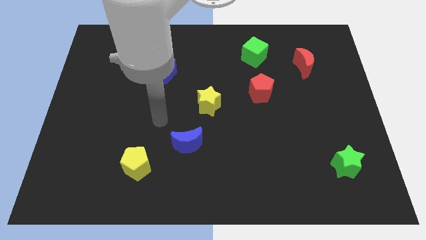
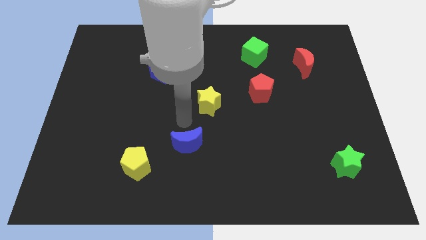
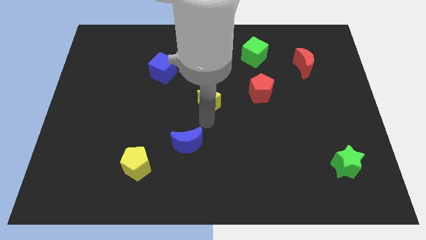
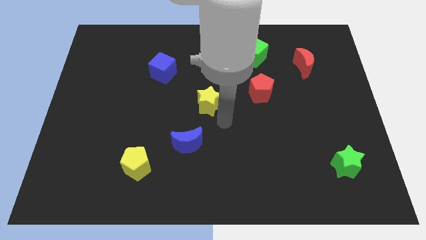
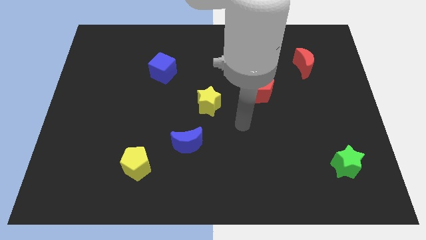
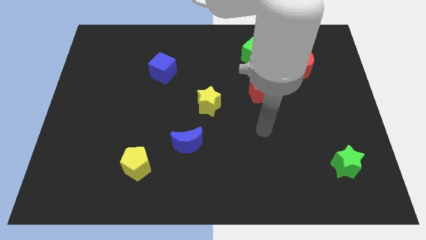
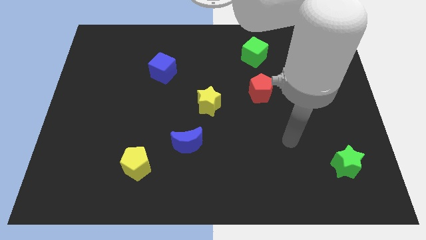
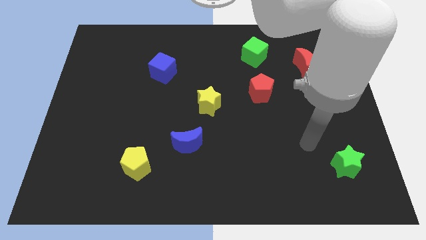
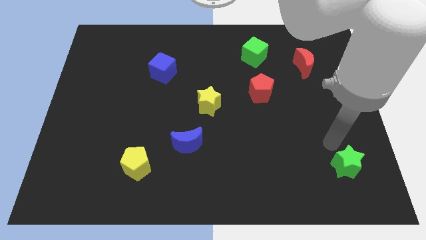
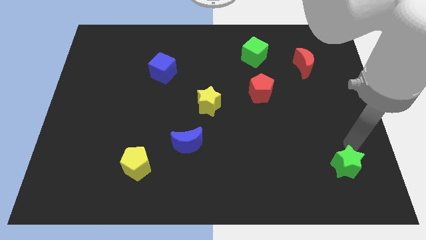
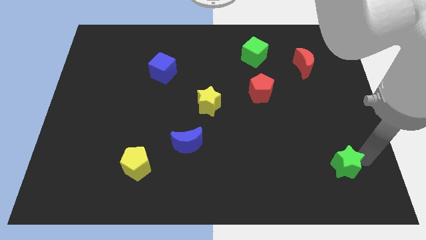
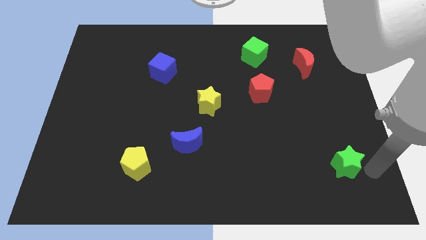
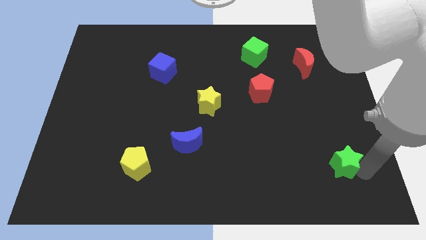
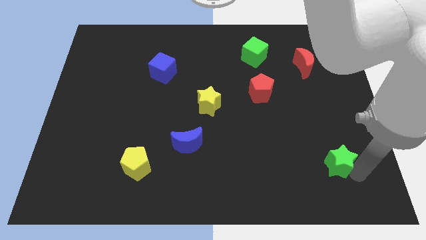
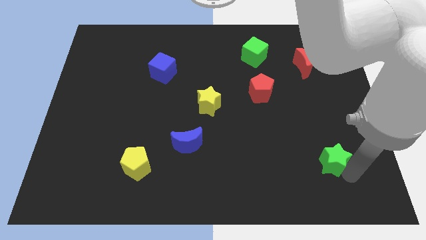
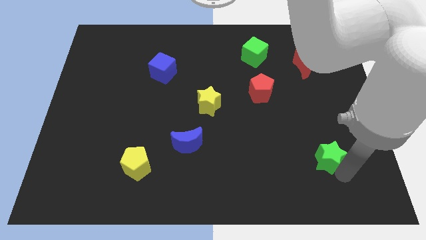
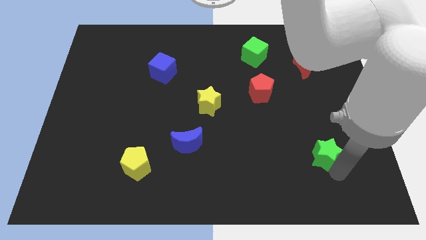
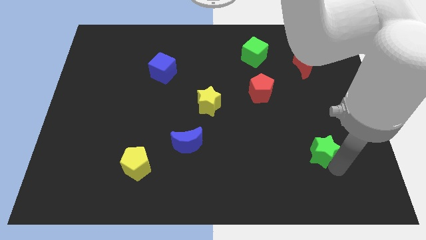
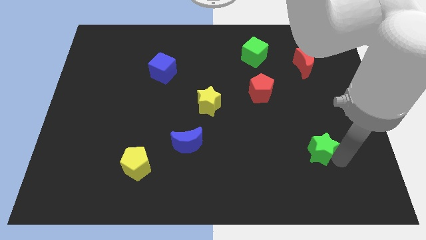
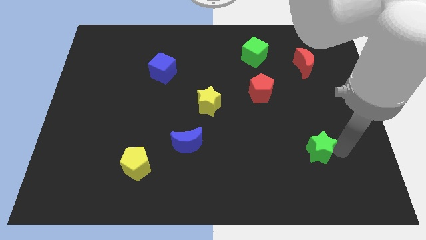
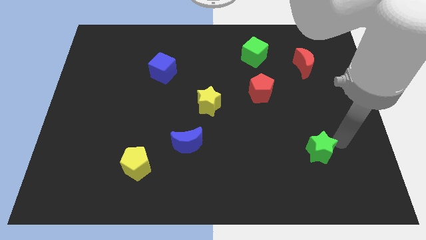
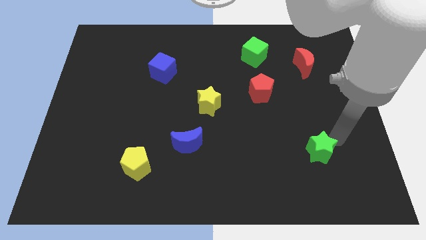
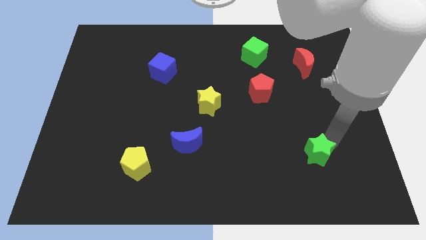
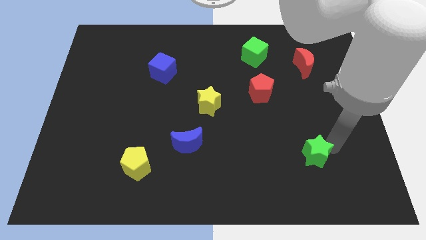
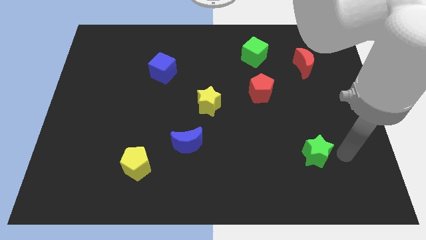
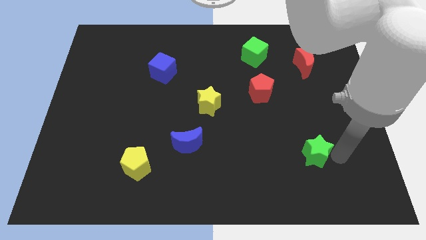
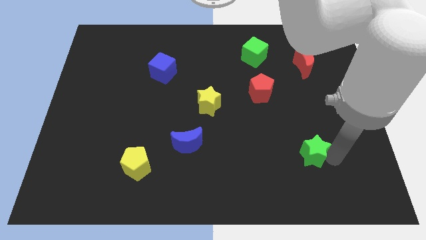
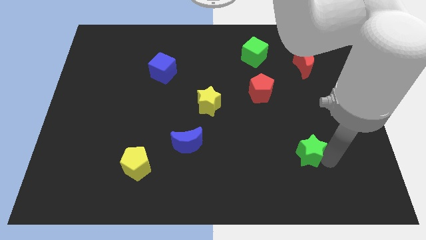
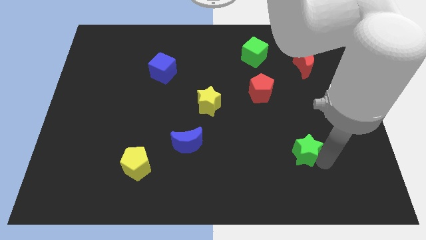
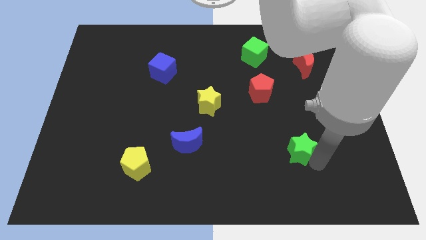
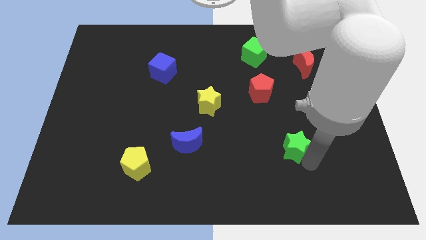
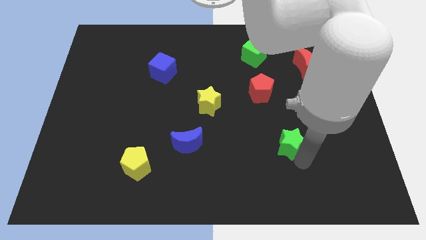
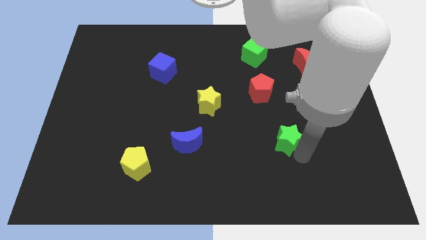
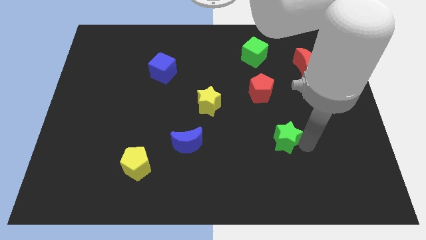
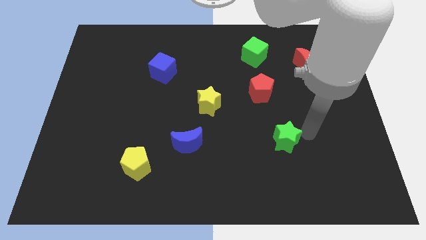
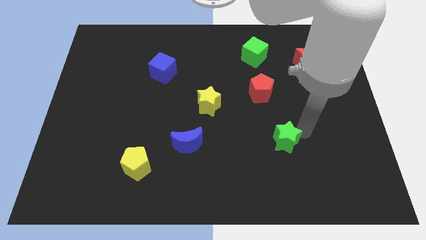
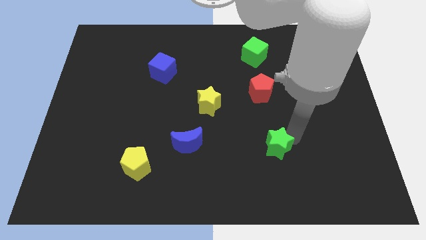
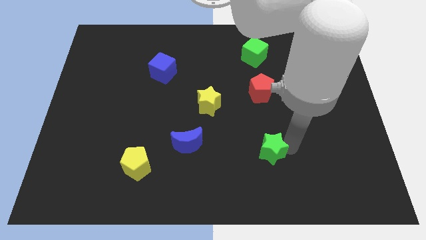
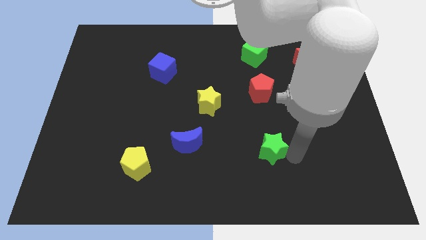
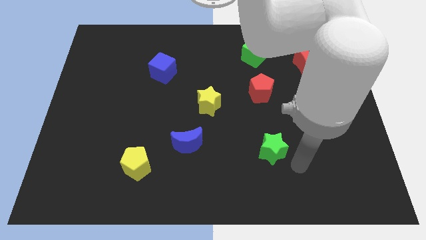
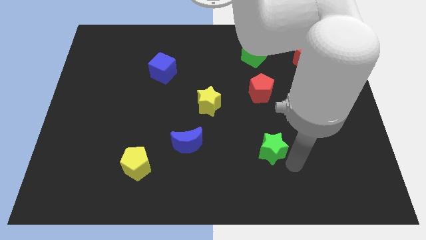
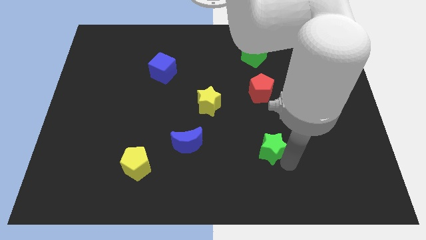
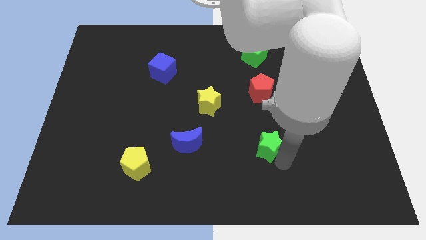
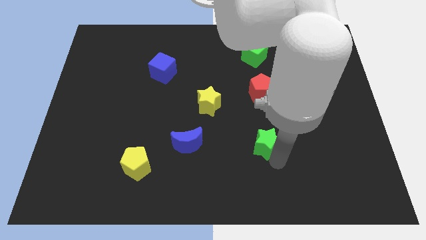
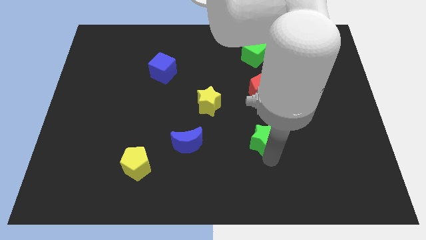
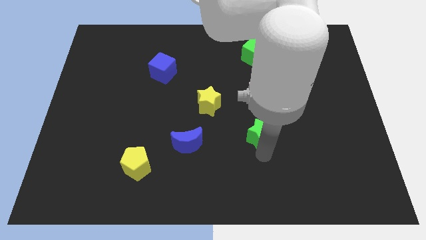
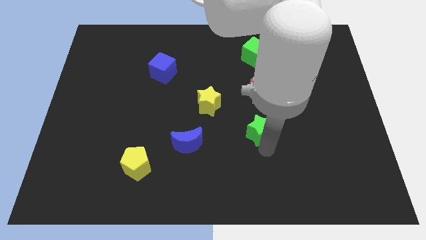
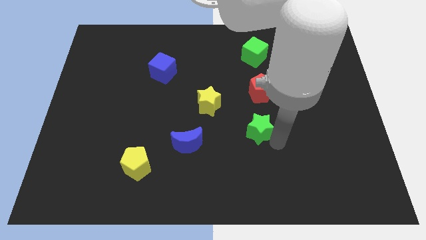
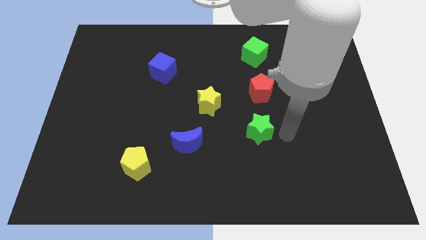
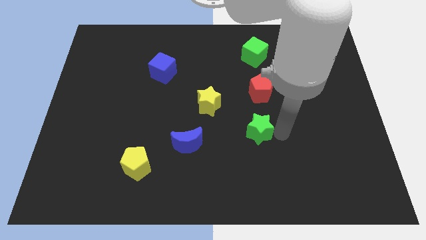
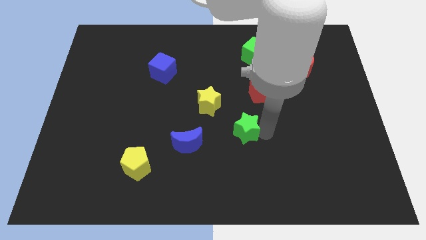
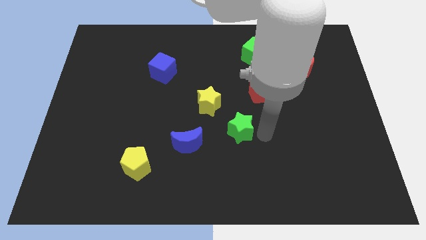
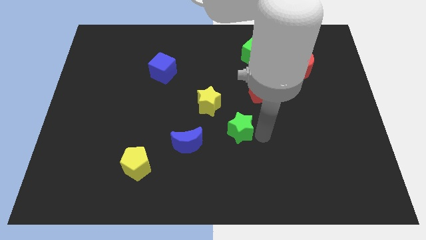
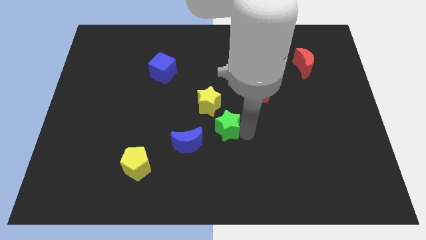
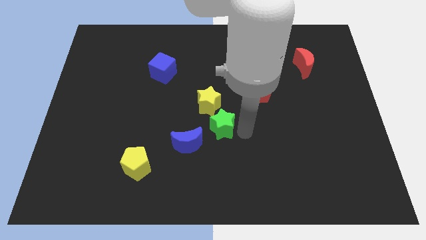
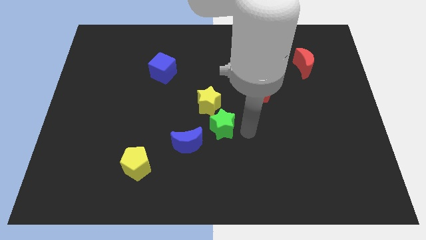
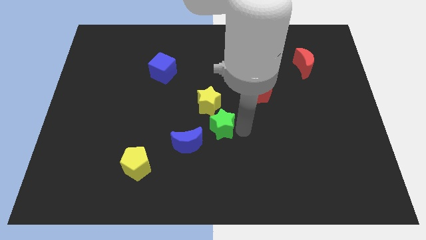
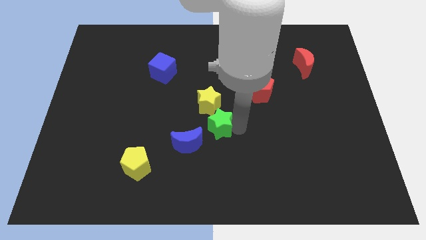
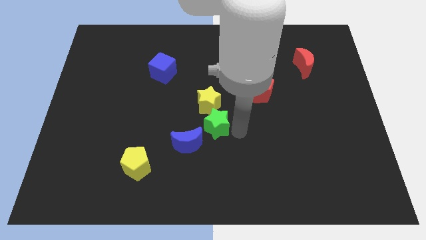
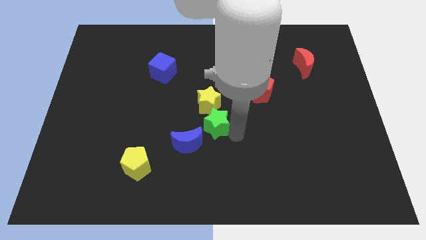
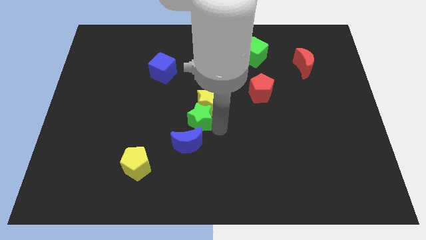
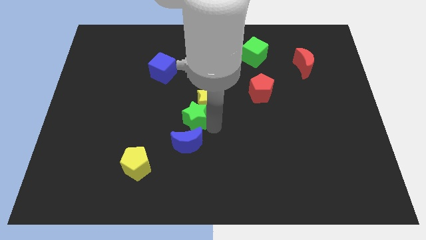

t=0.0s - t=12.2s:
slide the green star to the left side of the yellow star

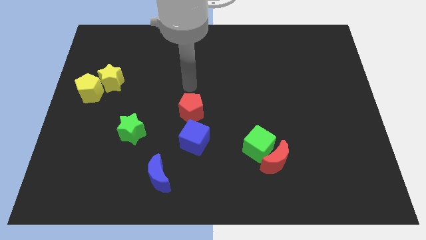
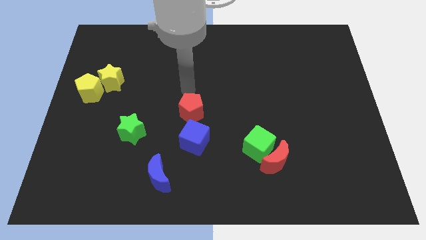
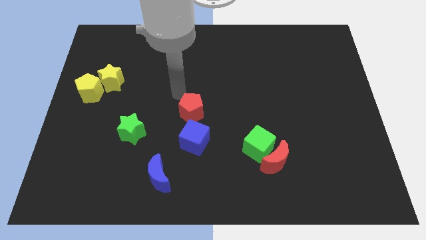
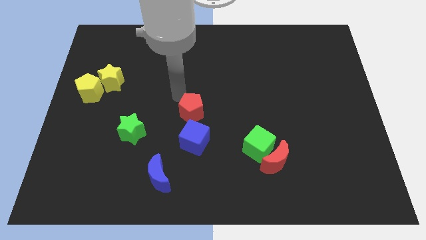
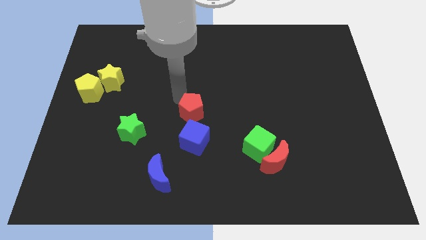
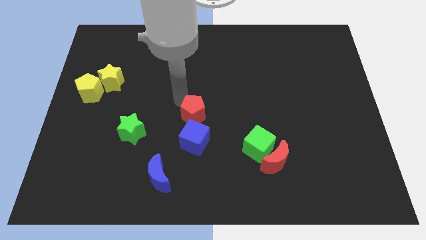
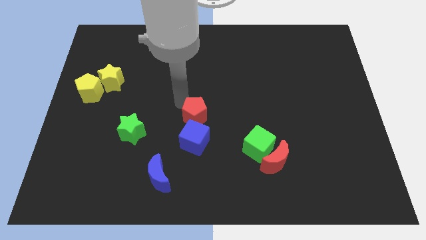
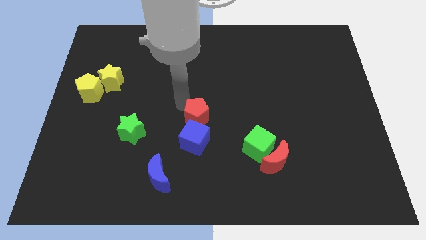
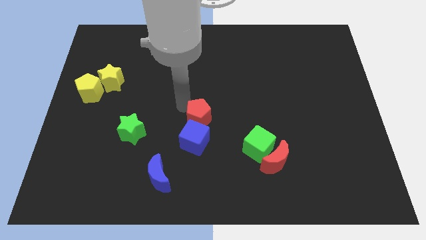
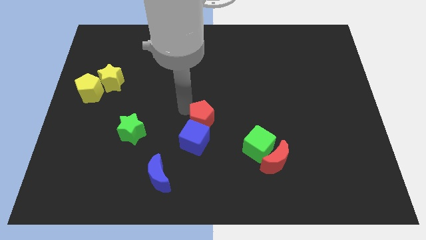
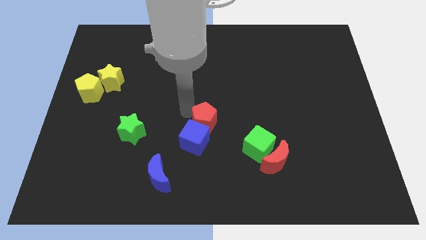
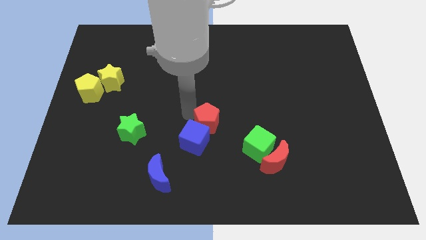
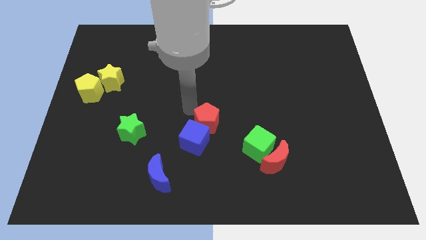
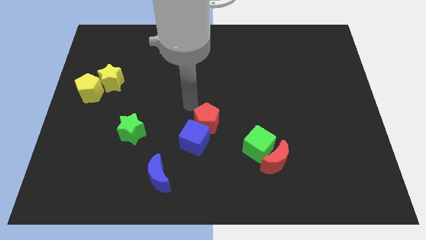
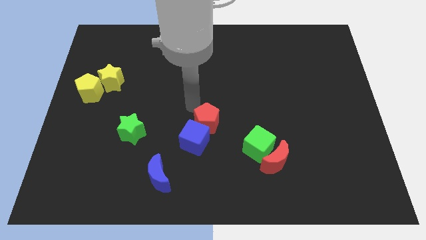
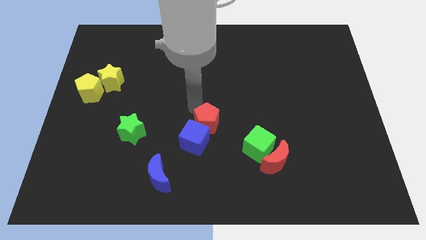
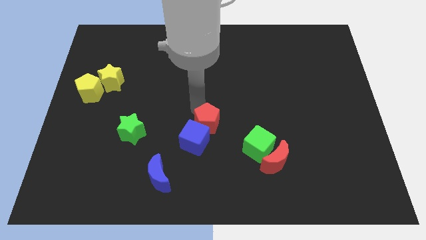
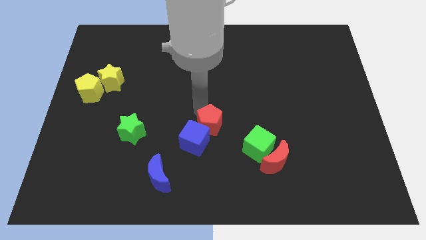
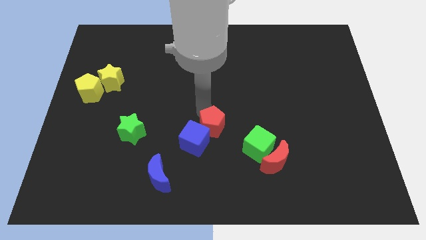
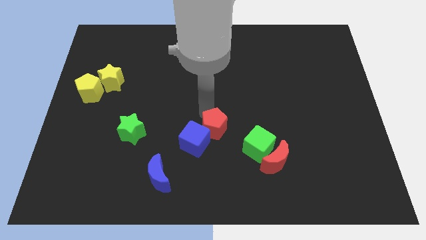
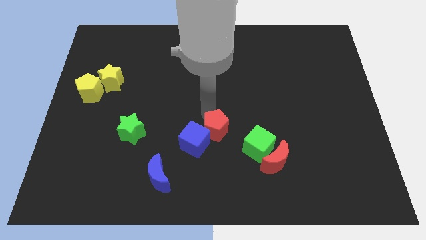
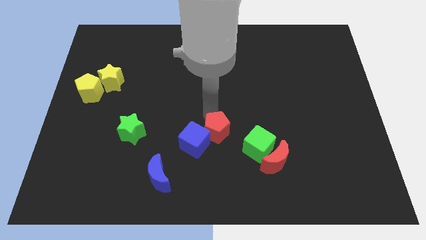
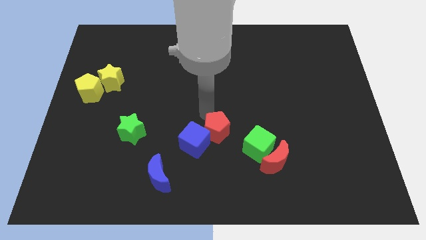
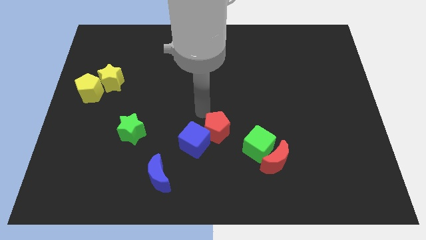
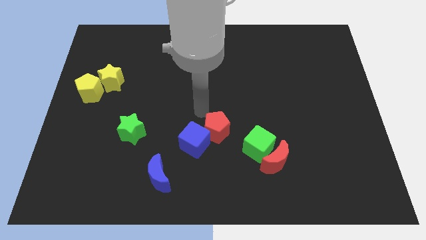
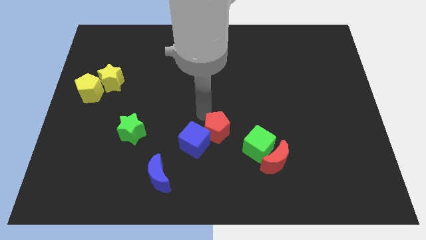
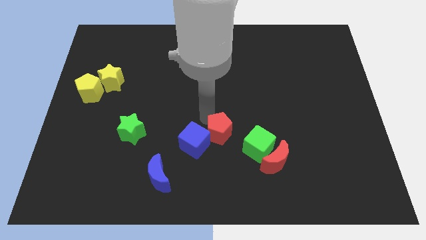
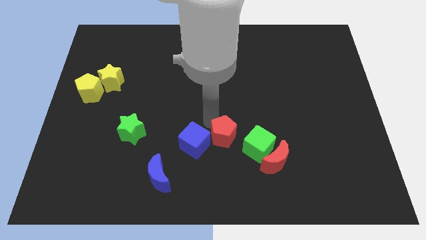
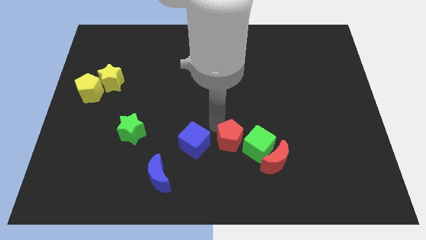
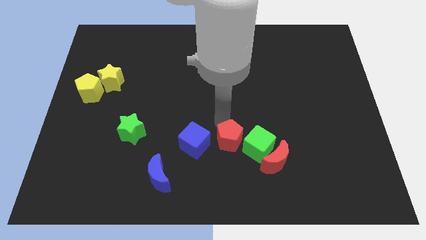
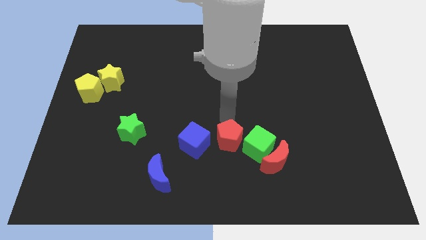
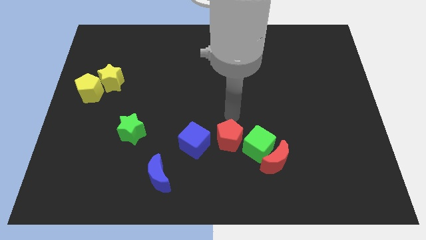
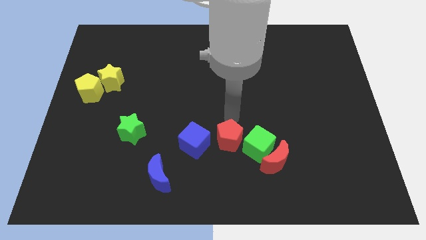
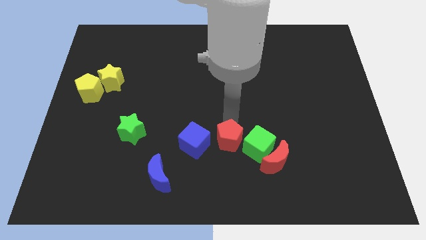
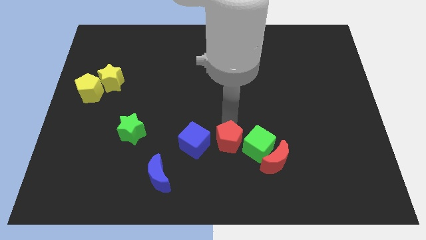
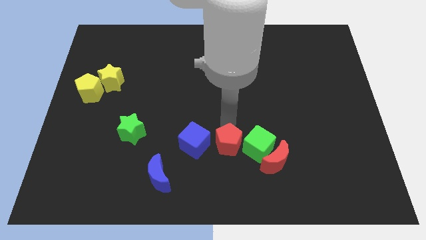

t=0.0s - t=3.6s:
put the red pentagon to the left side of the red moon
